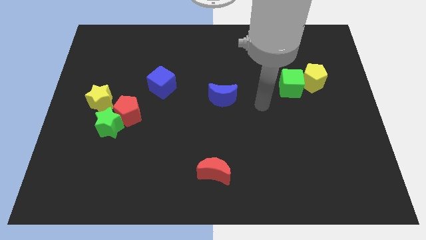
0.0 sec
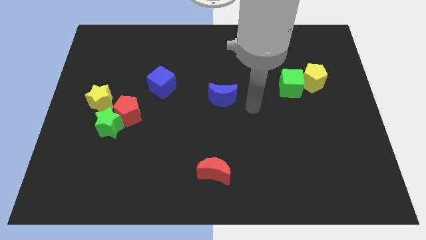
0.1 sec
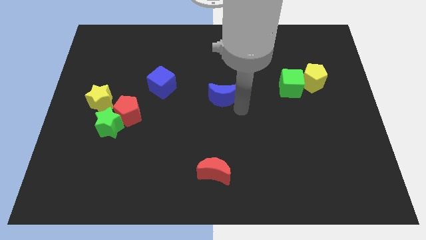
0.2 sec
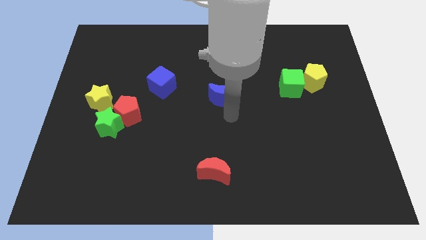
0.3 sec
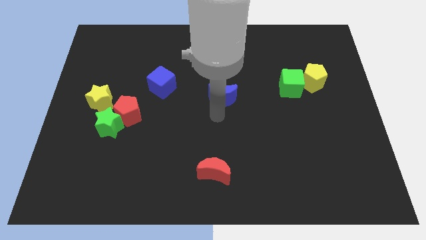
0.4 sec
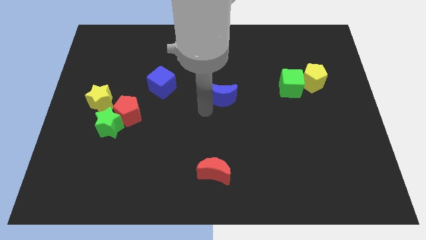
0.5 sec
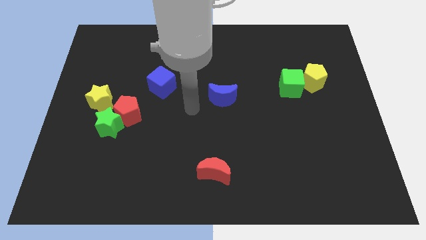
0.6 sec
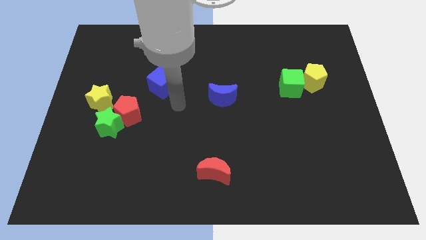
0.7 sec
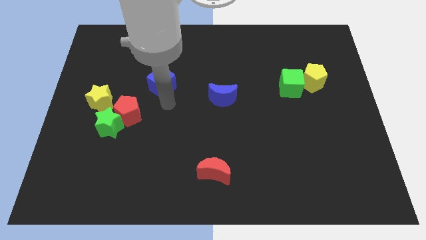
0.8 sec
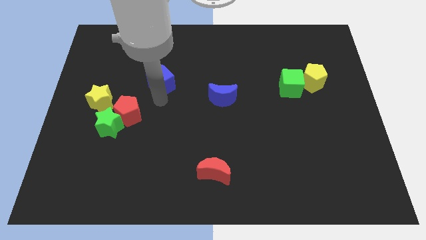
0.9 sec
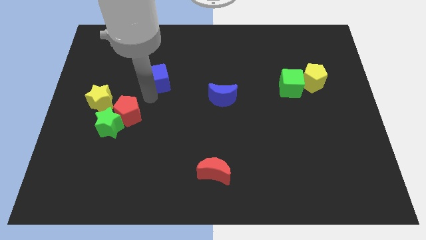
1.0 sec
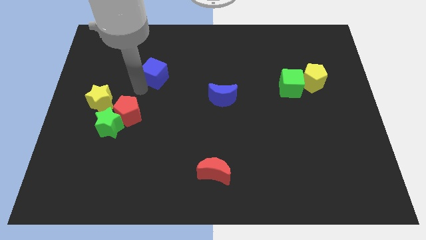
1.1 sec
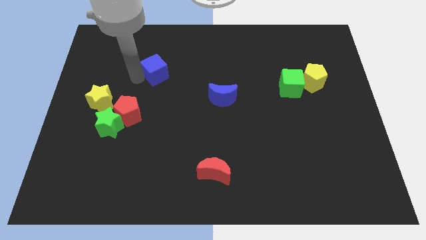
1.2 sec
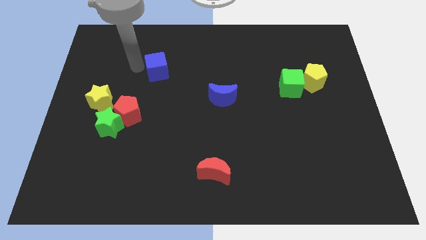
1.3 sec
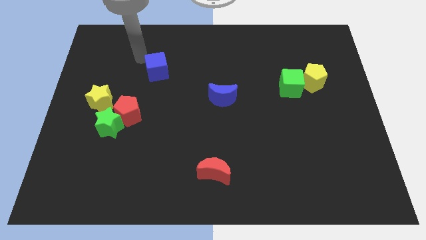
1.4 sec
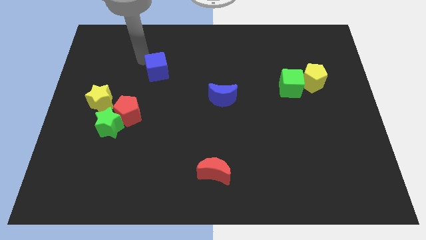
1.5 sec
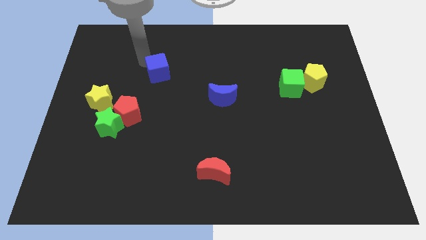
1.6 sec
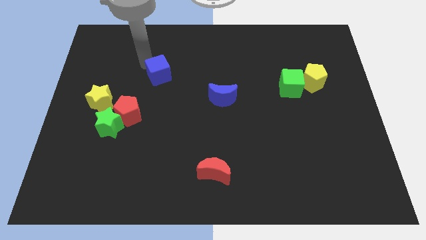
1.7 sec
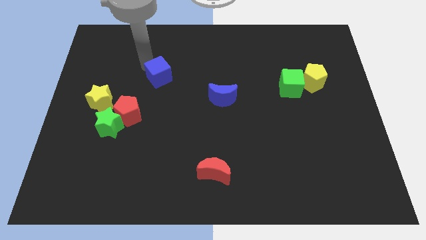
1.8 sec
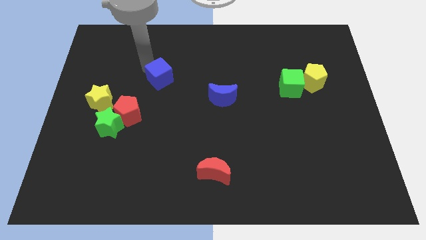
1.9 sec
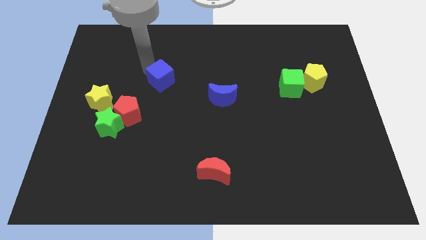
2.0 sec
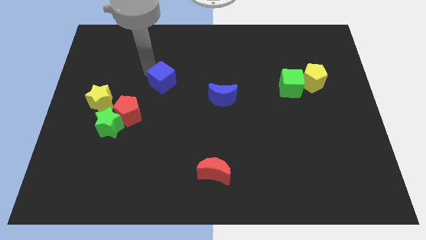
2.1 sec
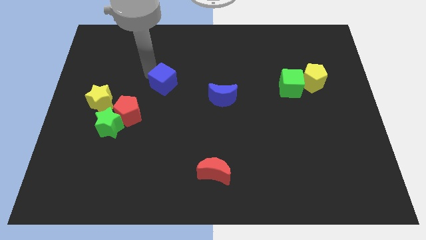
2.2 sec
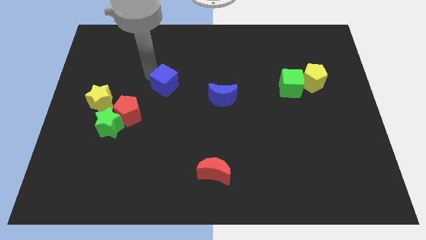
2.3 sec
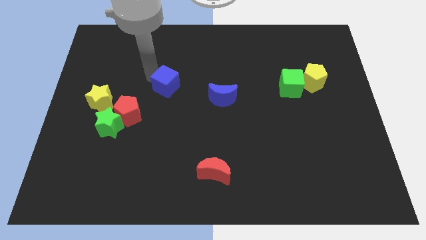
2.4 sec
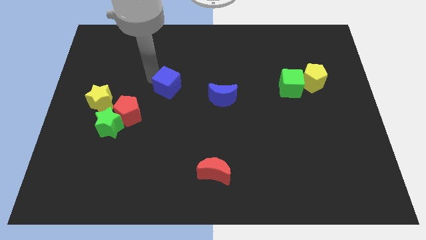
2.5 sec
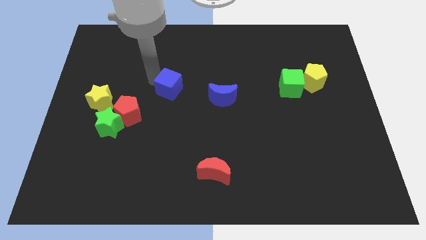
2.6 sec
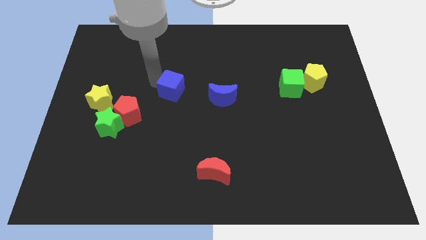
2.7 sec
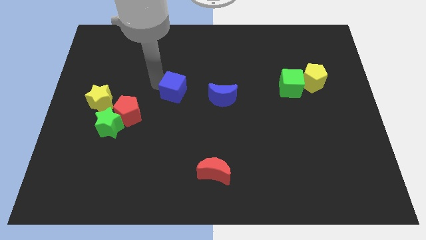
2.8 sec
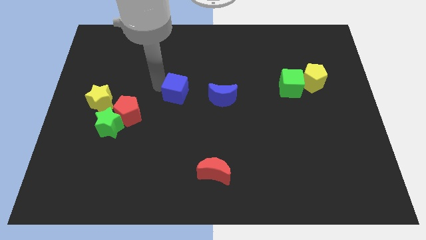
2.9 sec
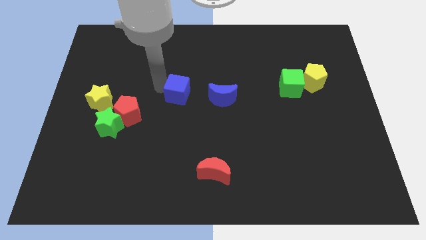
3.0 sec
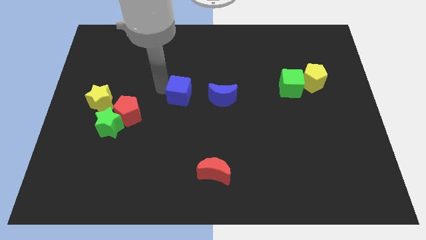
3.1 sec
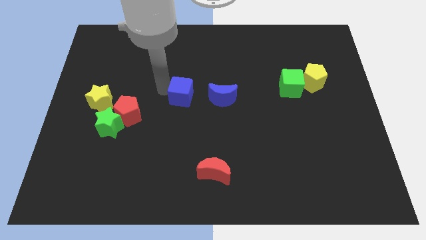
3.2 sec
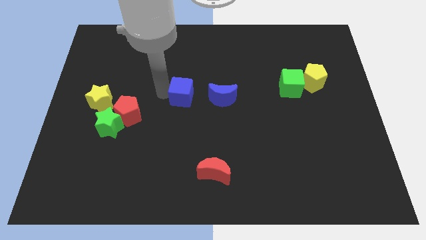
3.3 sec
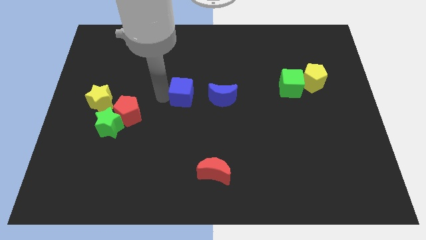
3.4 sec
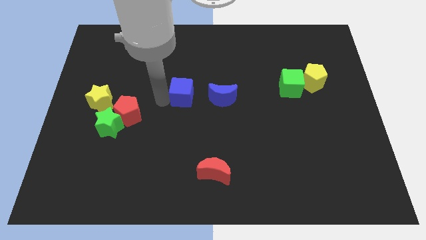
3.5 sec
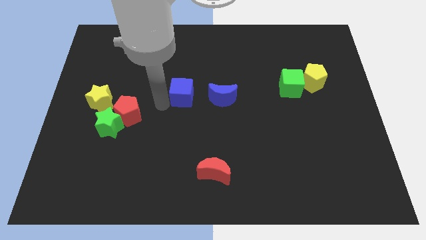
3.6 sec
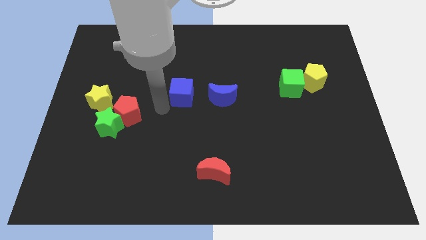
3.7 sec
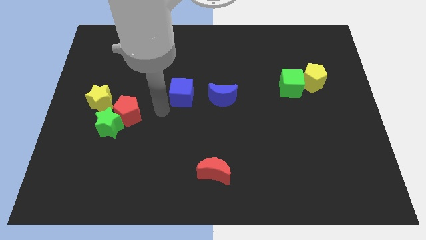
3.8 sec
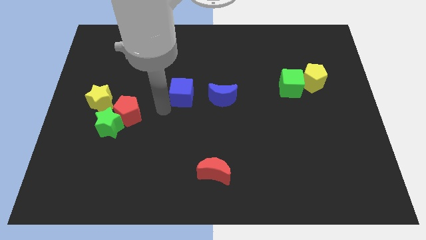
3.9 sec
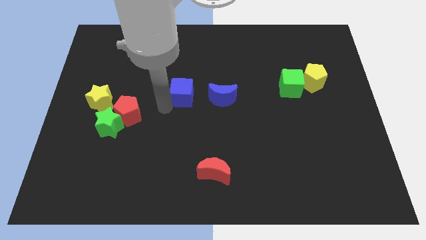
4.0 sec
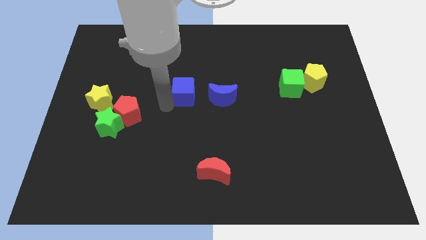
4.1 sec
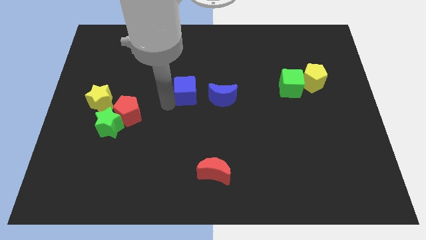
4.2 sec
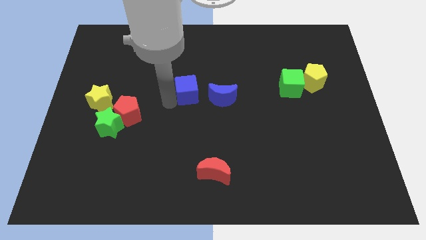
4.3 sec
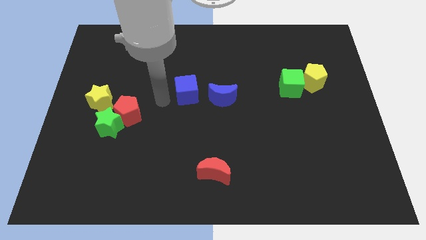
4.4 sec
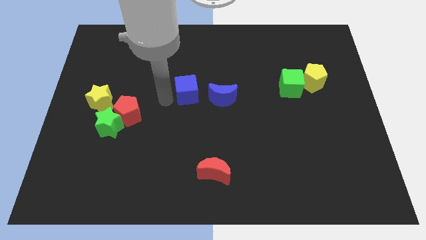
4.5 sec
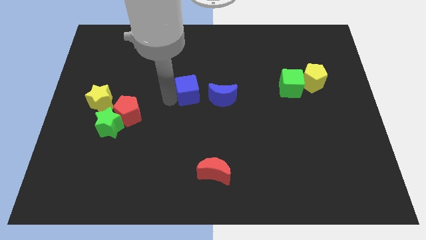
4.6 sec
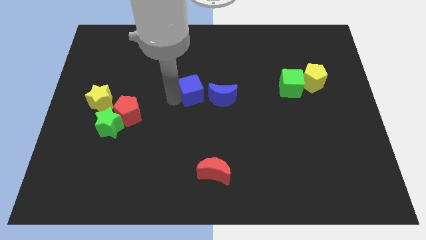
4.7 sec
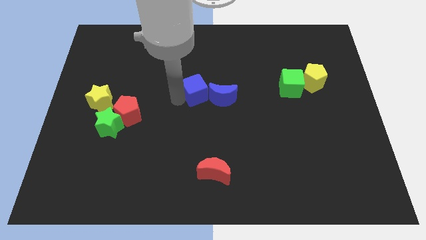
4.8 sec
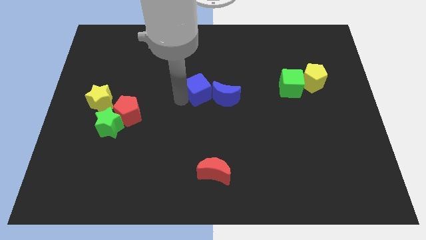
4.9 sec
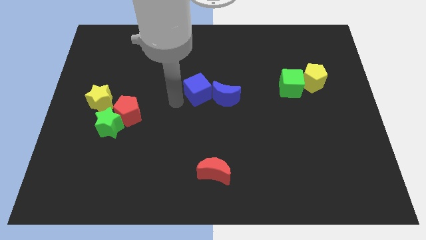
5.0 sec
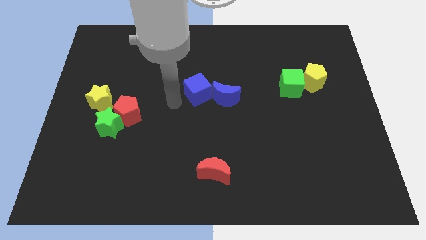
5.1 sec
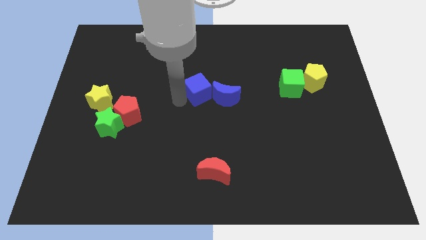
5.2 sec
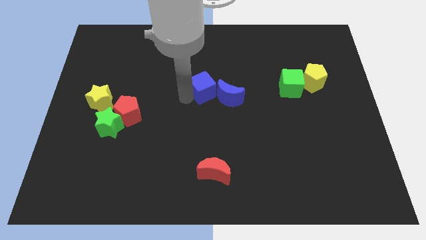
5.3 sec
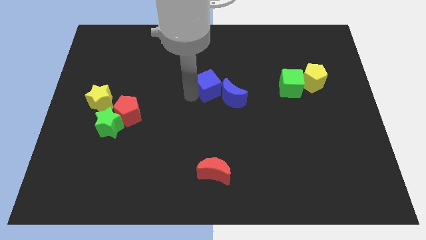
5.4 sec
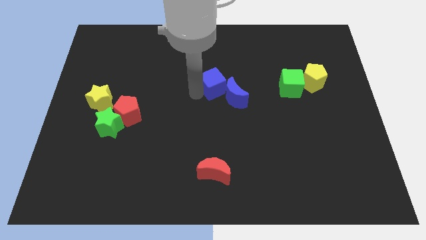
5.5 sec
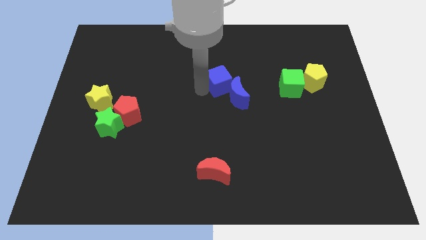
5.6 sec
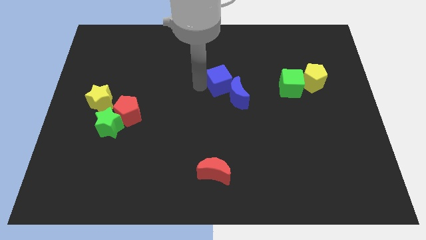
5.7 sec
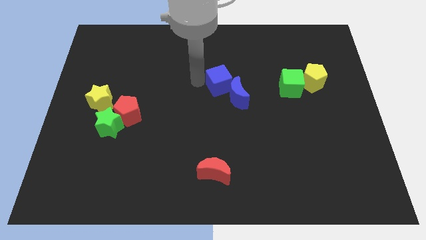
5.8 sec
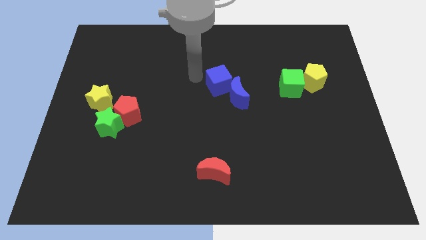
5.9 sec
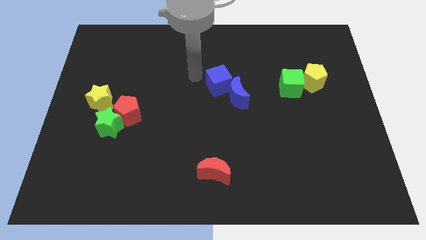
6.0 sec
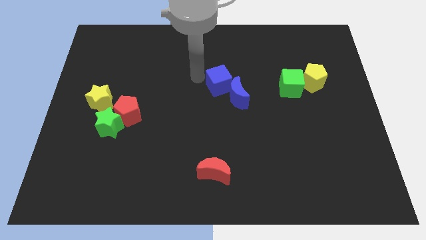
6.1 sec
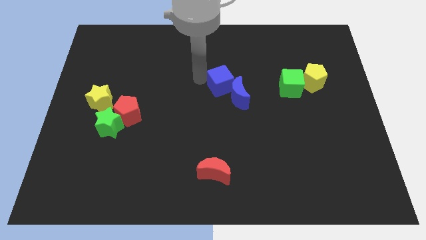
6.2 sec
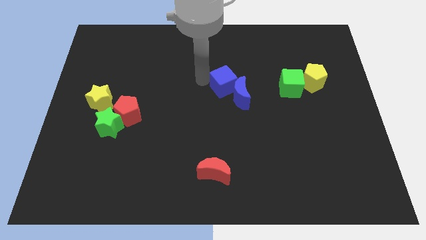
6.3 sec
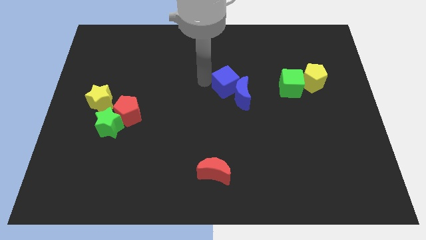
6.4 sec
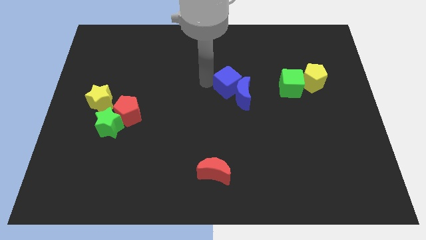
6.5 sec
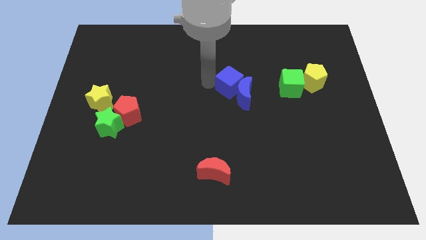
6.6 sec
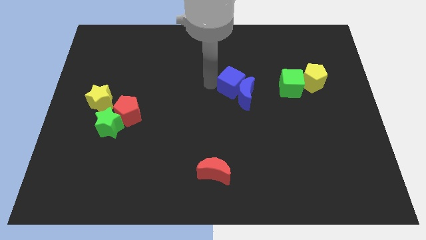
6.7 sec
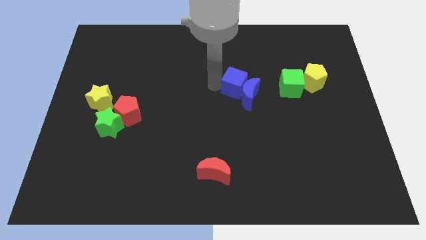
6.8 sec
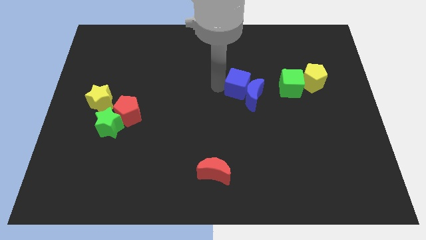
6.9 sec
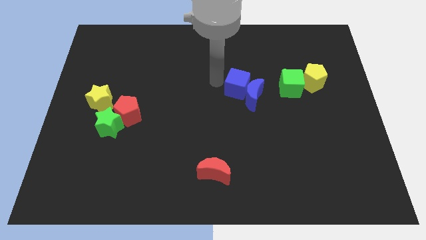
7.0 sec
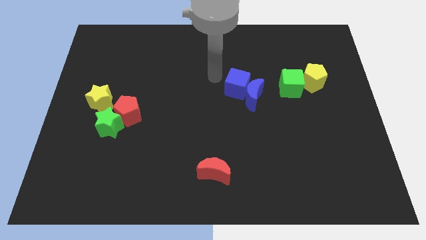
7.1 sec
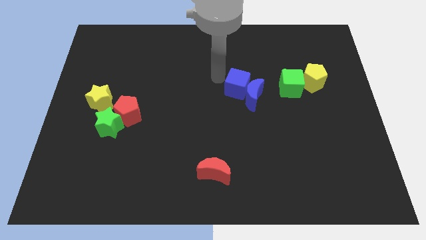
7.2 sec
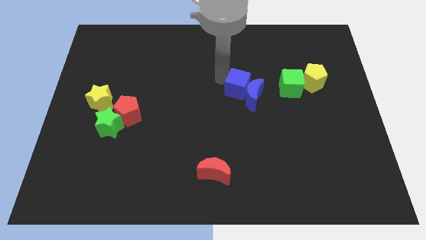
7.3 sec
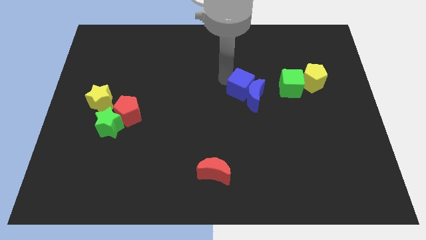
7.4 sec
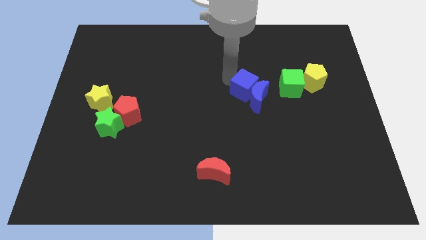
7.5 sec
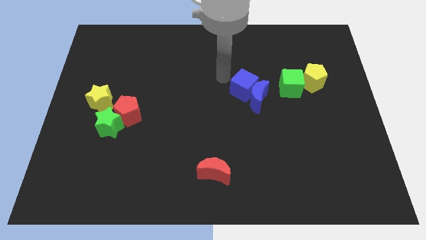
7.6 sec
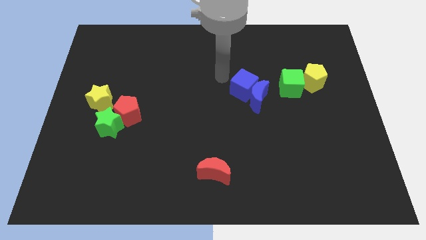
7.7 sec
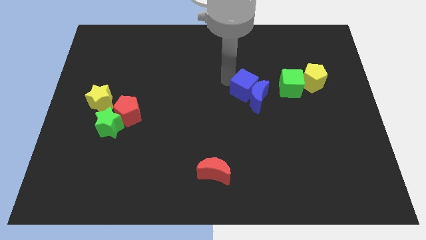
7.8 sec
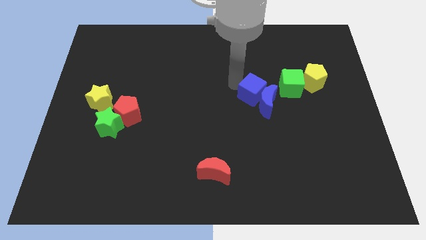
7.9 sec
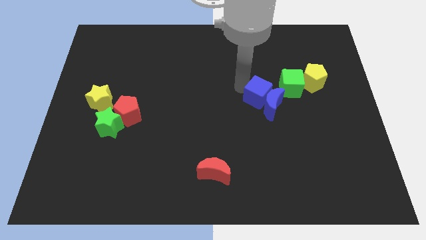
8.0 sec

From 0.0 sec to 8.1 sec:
slide the blue cube to the bottom left of the green cube
